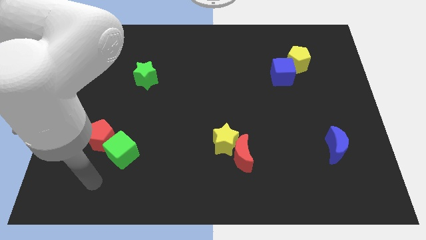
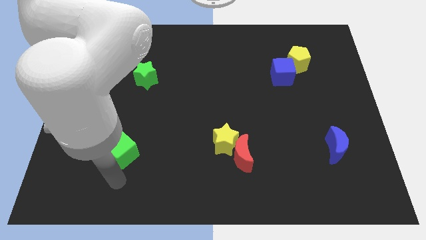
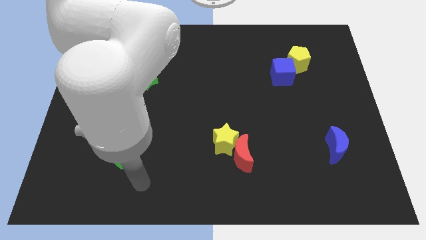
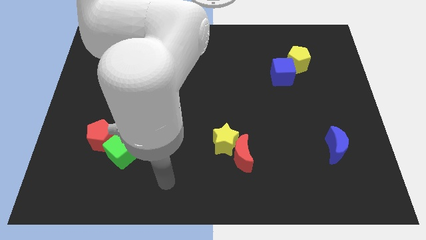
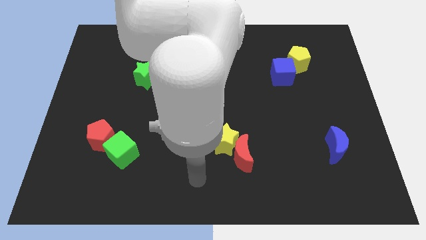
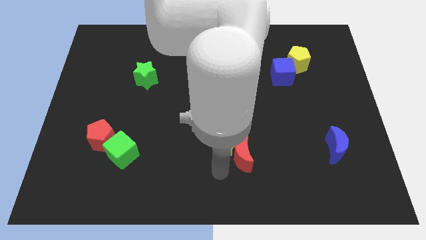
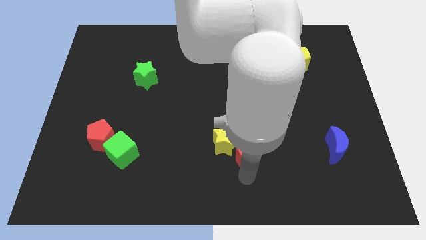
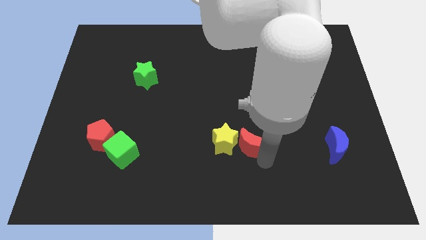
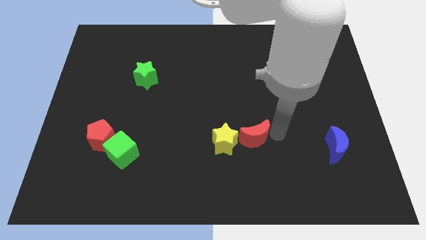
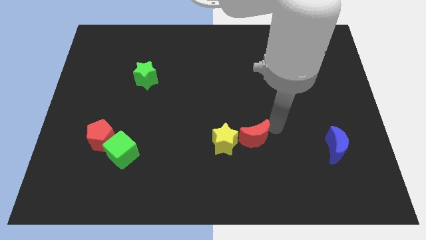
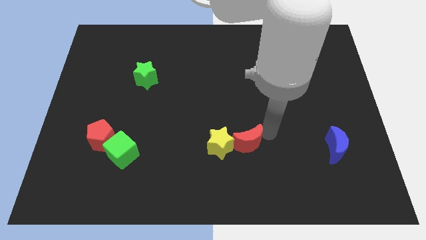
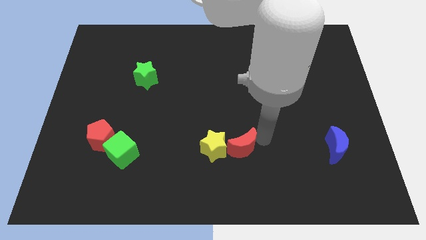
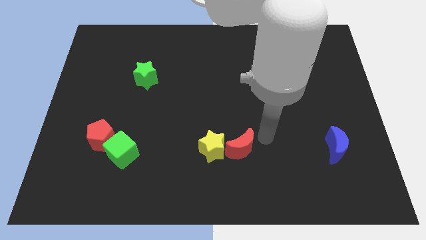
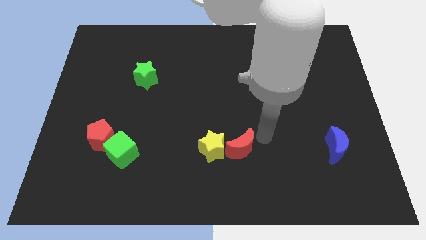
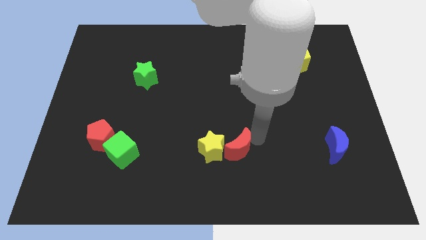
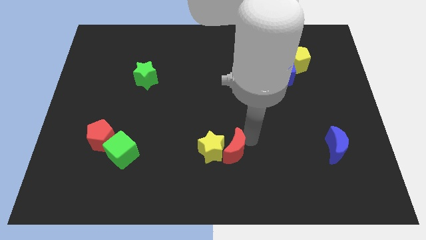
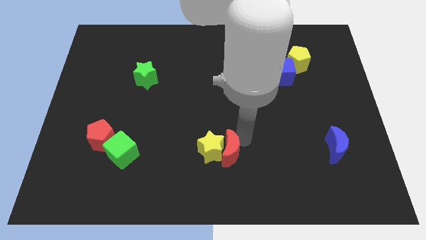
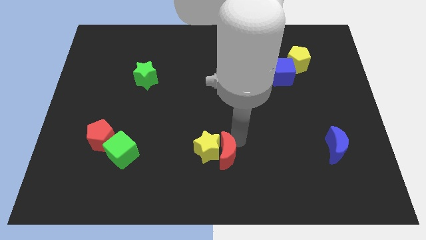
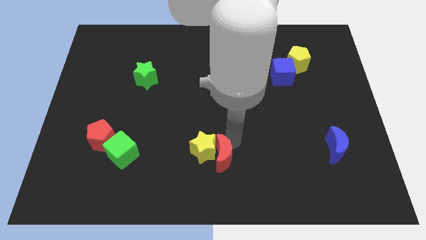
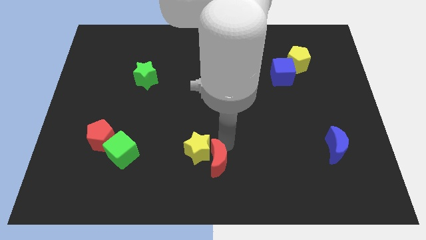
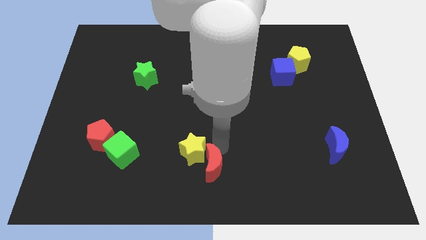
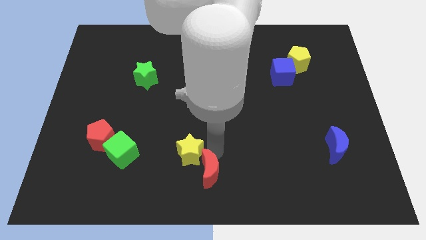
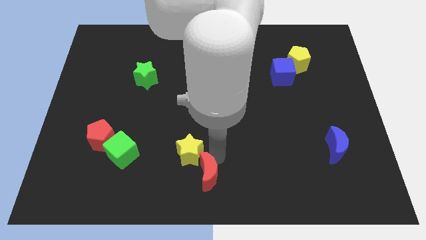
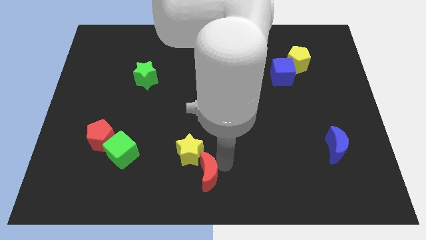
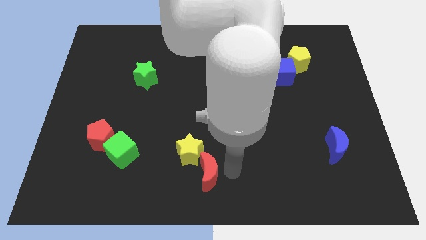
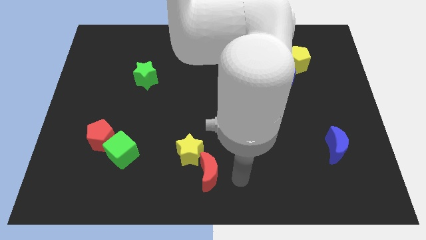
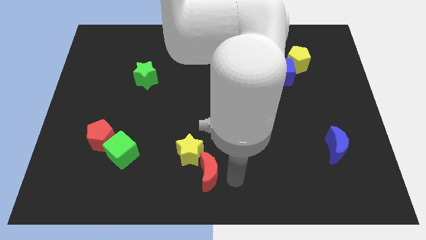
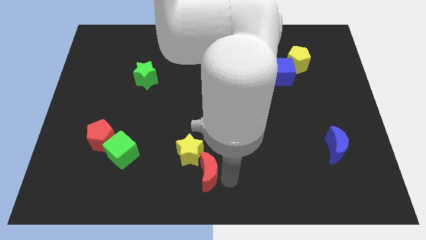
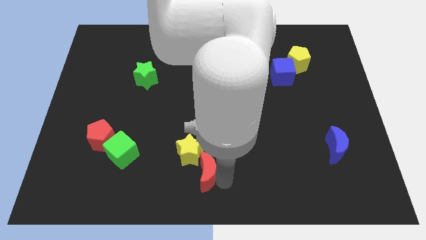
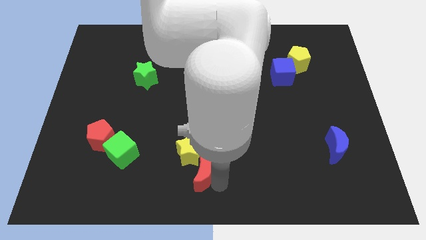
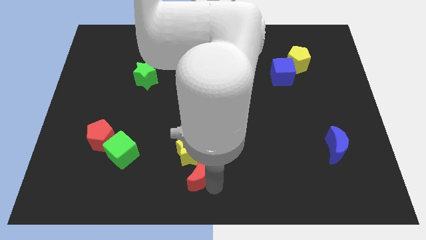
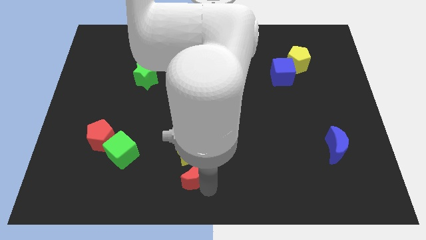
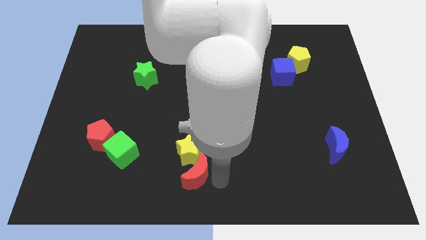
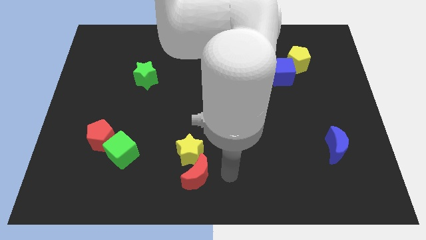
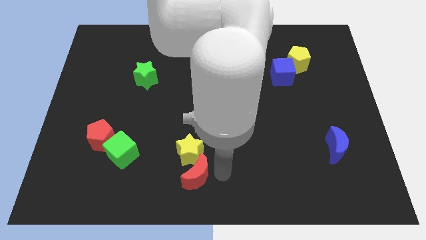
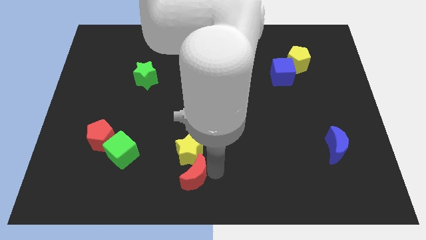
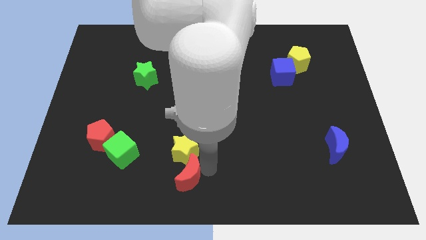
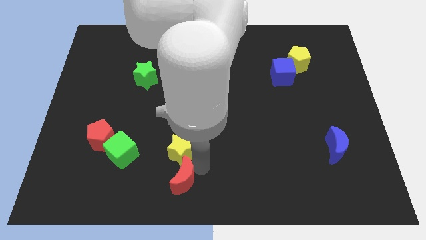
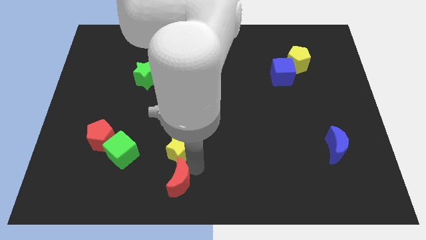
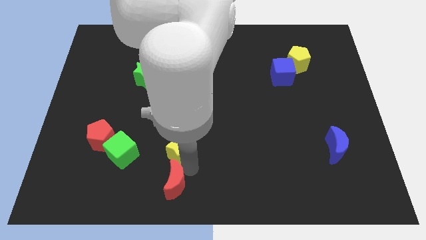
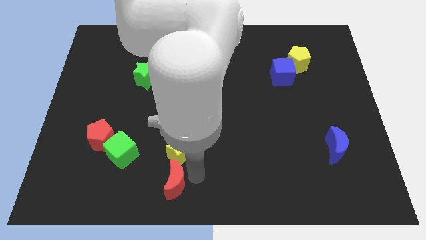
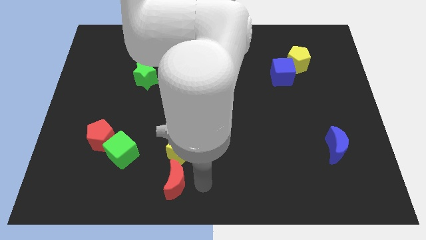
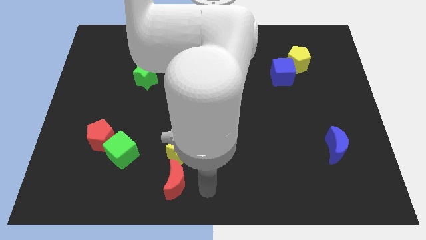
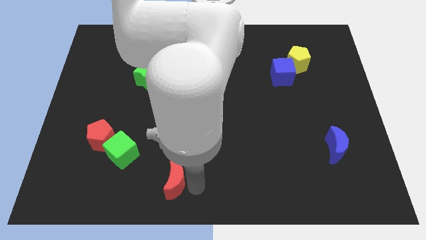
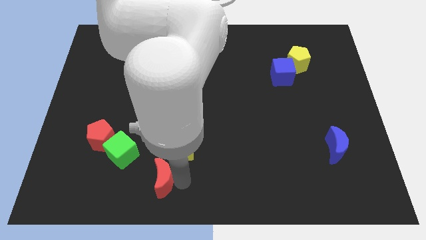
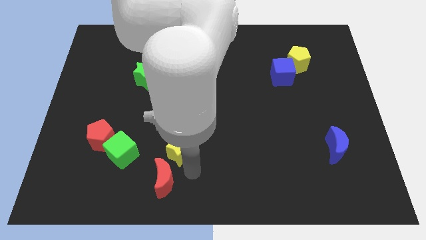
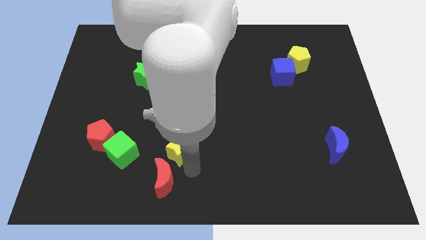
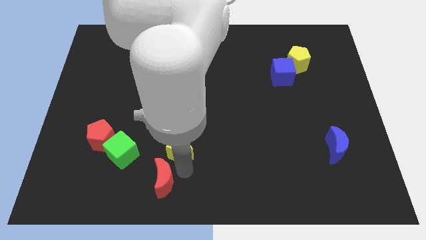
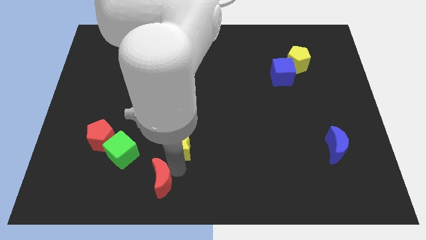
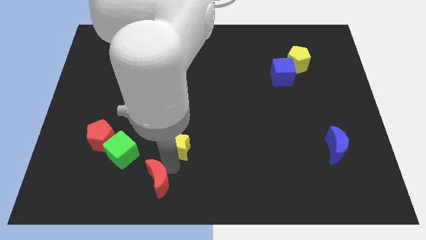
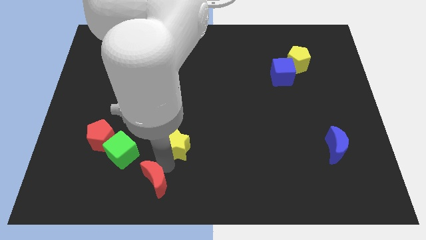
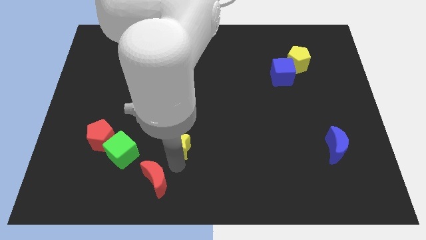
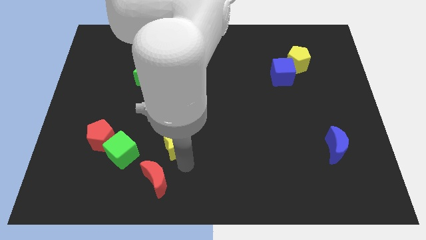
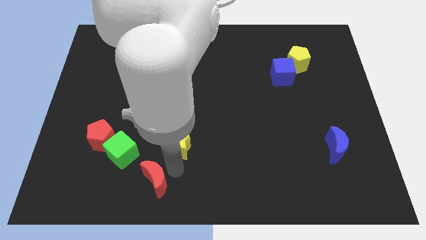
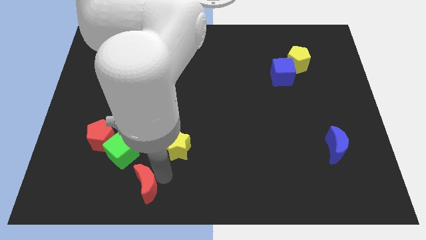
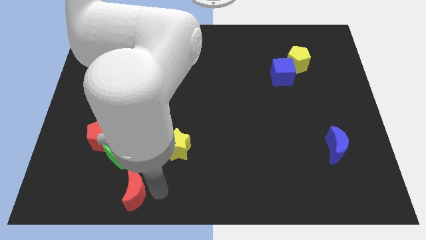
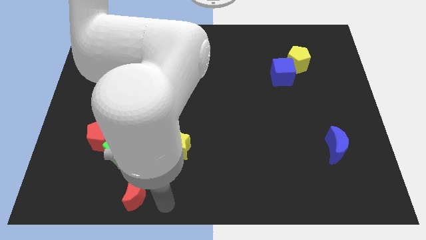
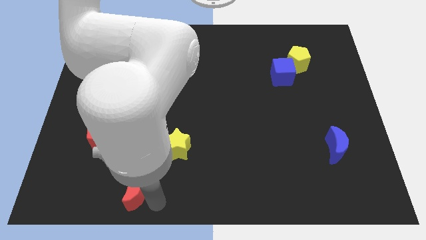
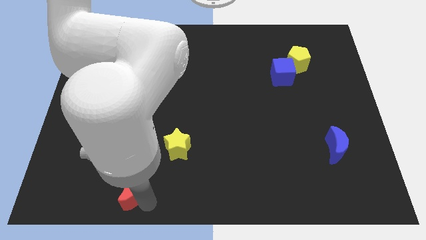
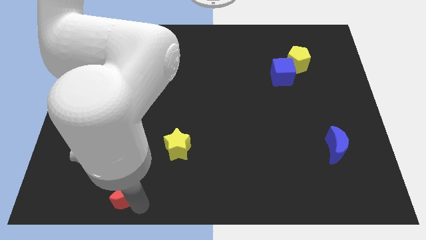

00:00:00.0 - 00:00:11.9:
slide the red moon to the left

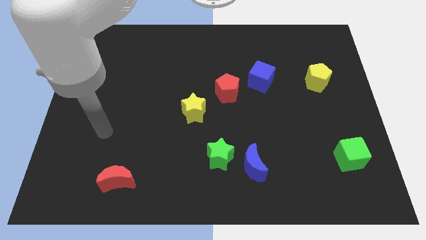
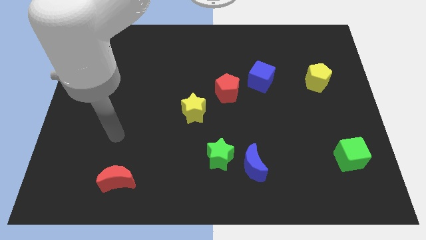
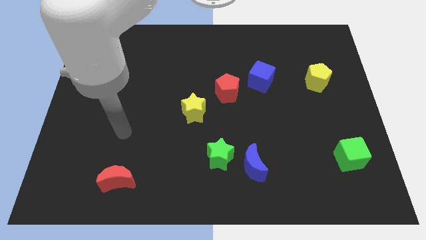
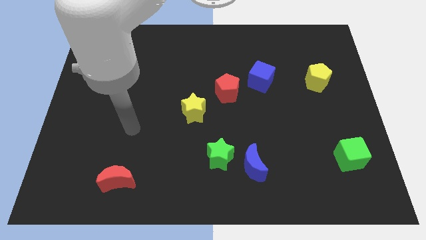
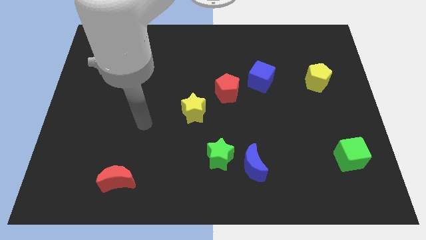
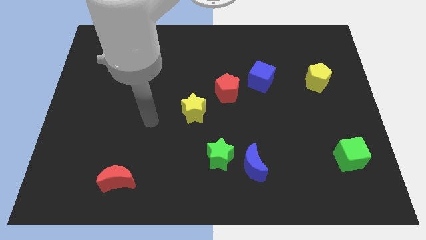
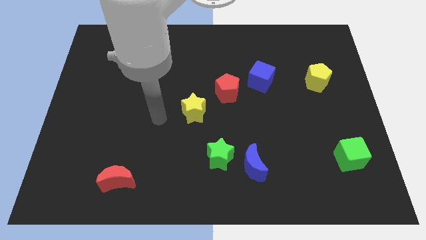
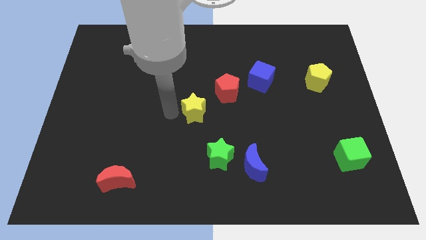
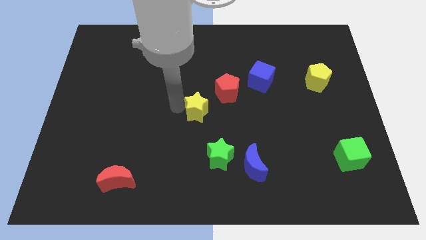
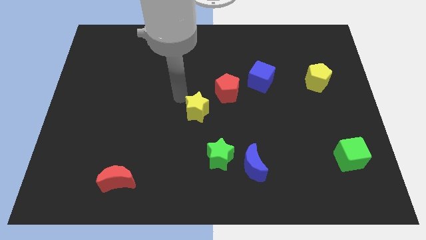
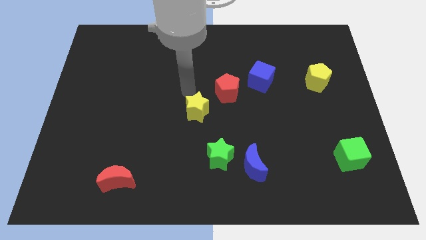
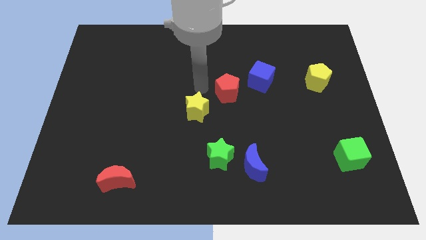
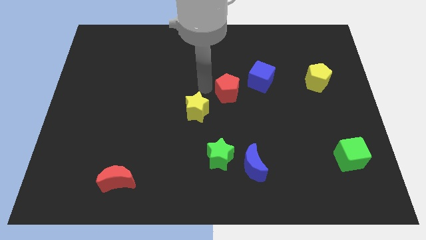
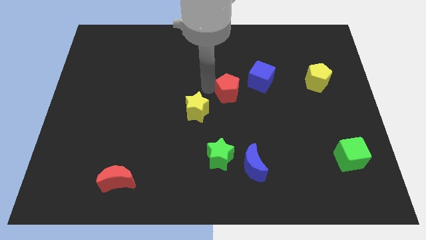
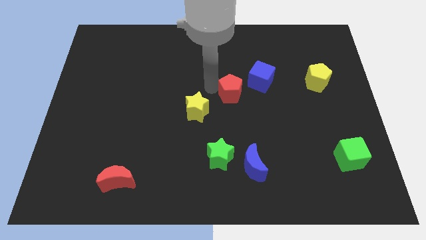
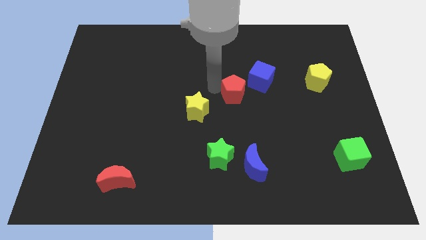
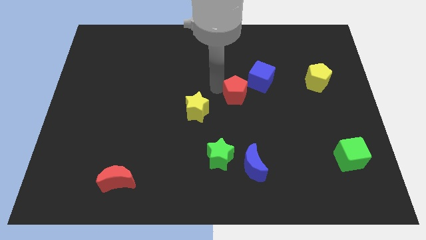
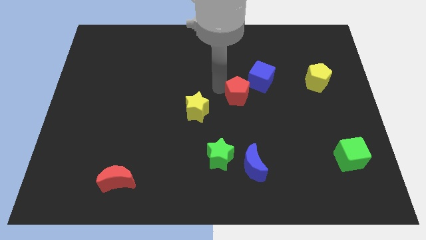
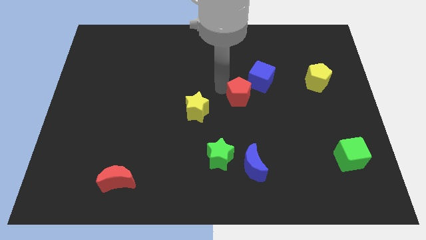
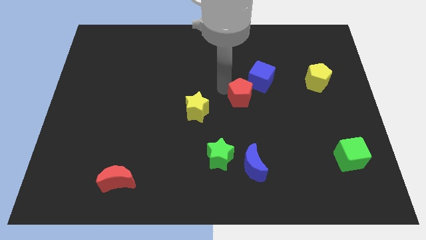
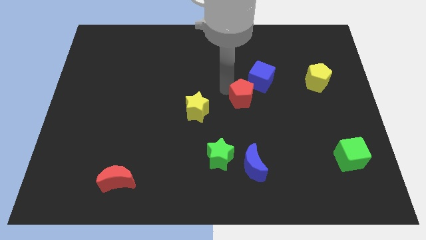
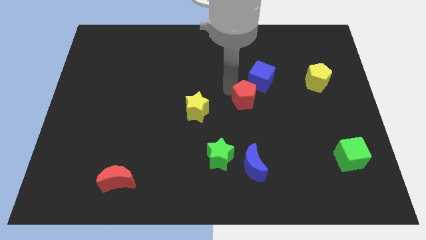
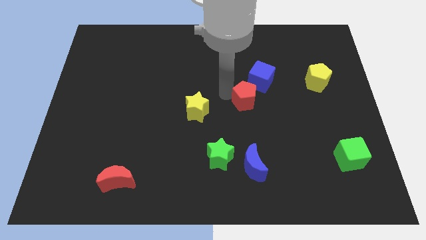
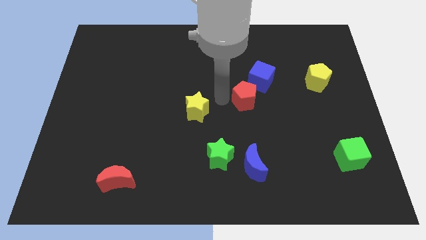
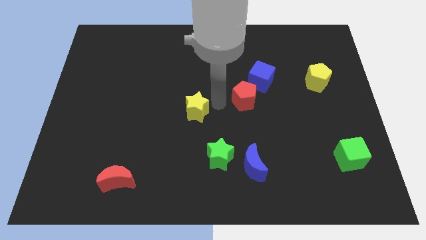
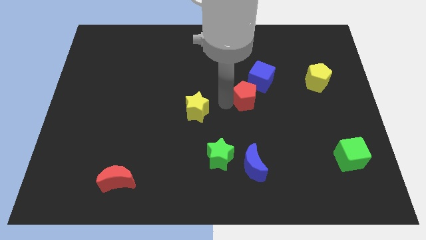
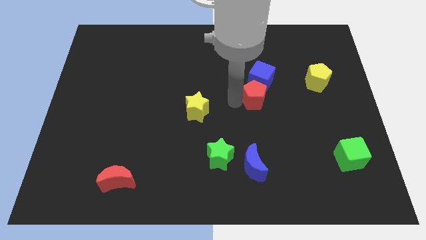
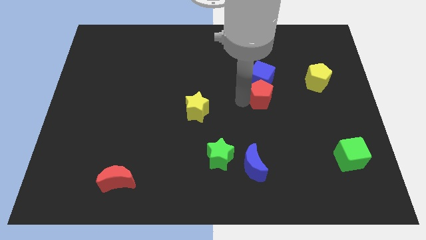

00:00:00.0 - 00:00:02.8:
move the red pentagon a little bit right
